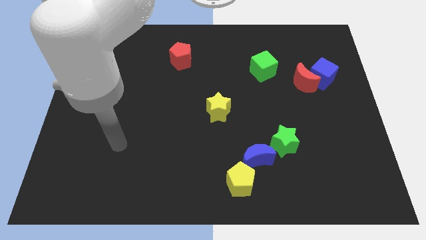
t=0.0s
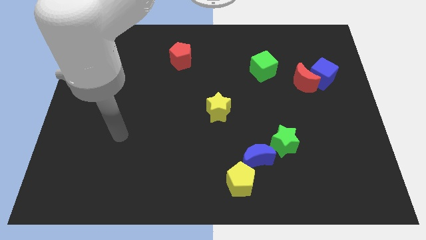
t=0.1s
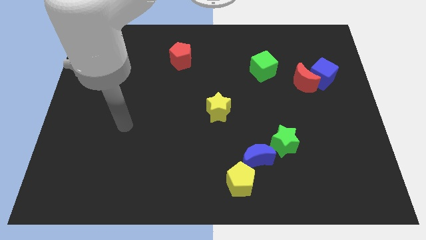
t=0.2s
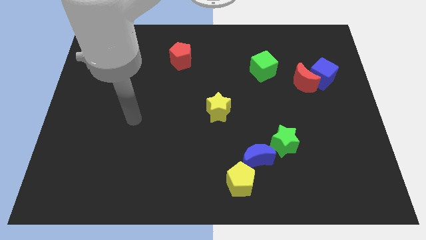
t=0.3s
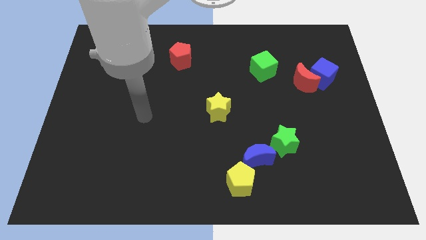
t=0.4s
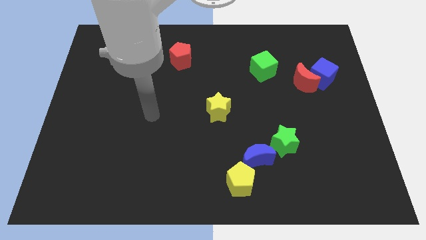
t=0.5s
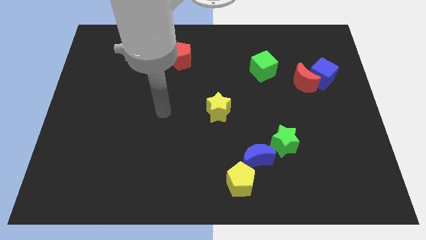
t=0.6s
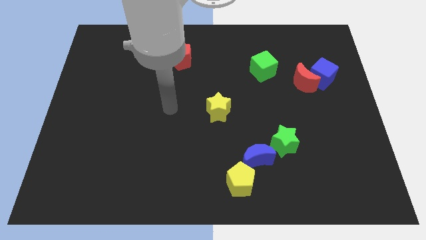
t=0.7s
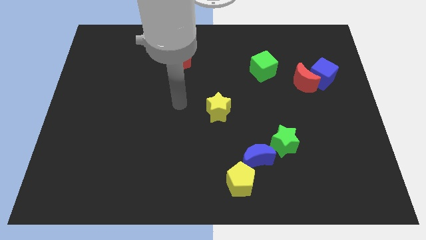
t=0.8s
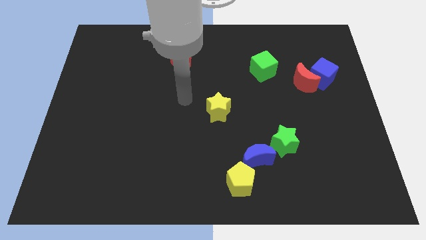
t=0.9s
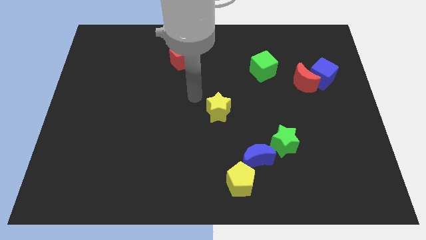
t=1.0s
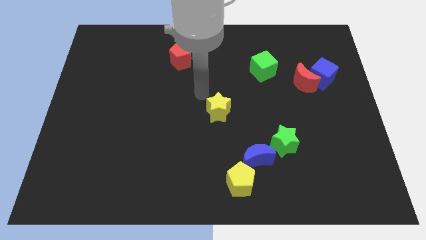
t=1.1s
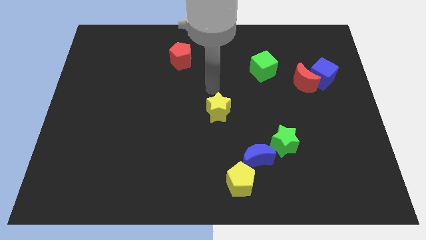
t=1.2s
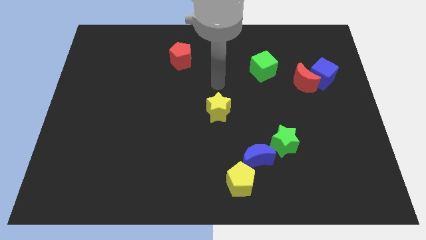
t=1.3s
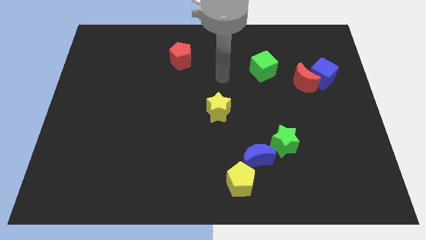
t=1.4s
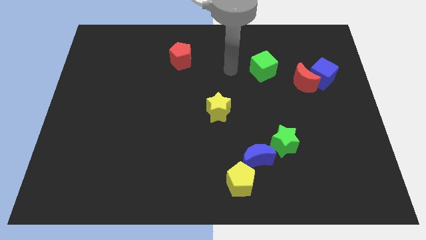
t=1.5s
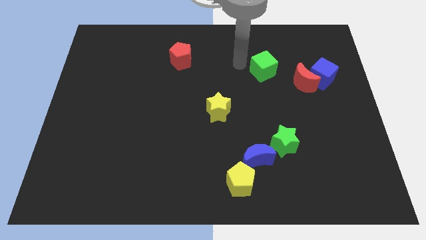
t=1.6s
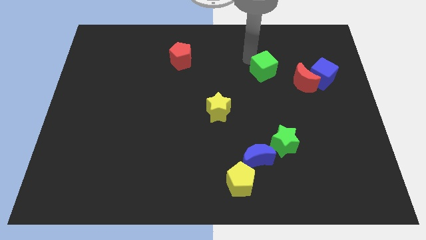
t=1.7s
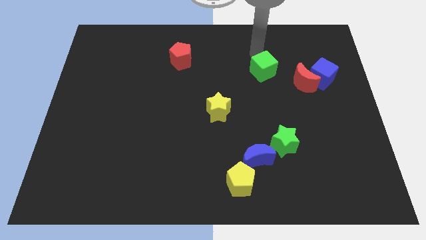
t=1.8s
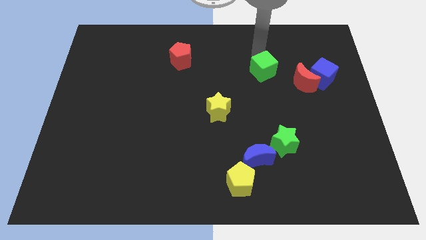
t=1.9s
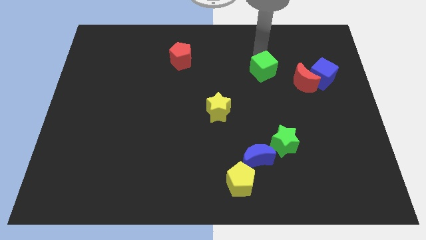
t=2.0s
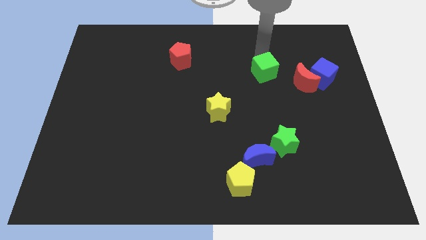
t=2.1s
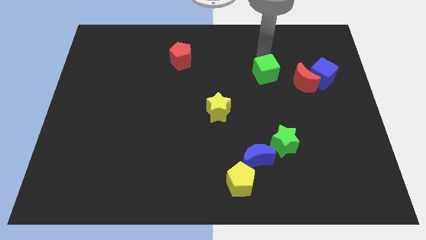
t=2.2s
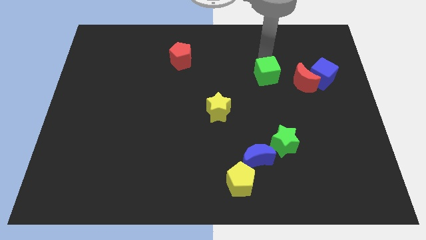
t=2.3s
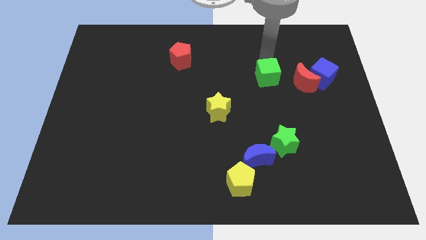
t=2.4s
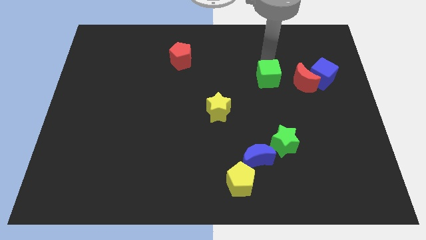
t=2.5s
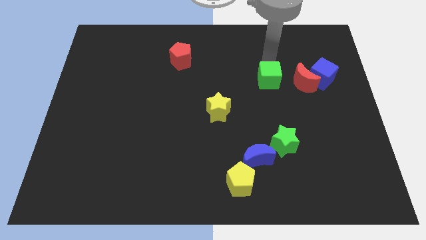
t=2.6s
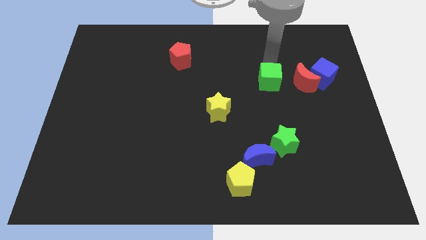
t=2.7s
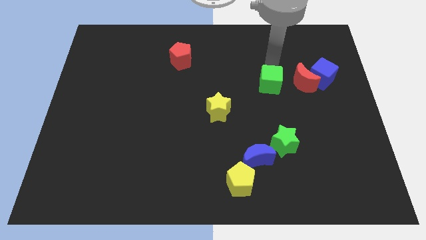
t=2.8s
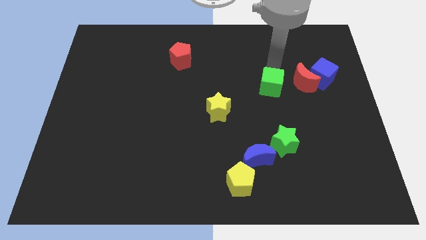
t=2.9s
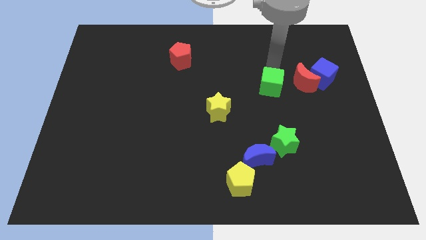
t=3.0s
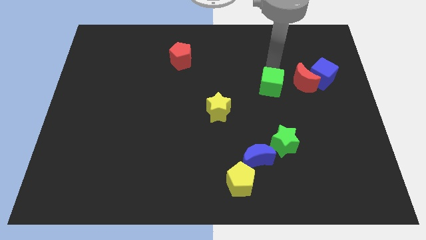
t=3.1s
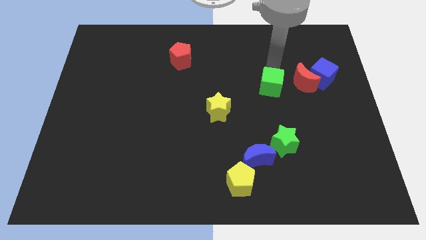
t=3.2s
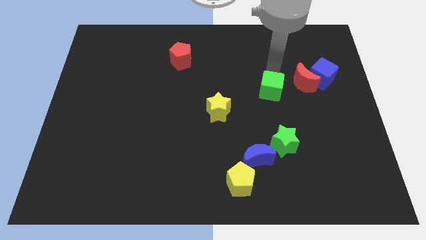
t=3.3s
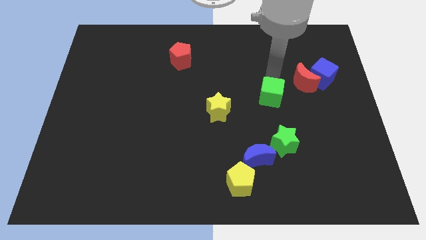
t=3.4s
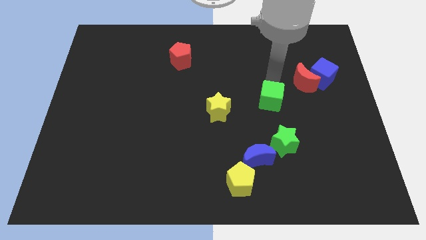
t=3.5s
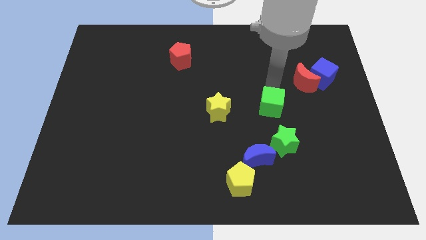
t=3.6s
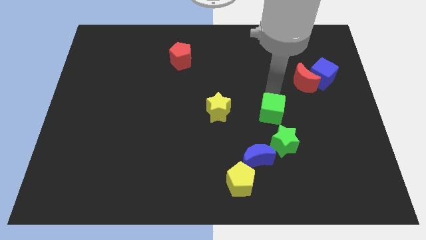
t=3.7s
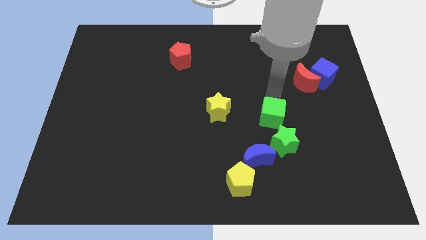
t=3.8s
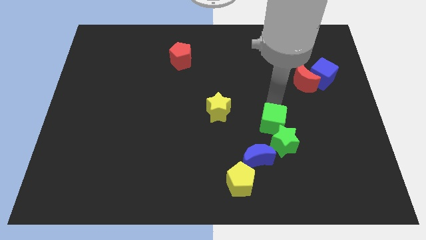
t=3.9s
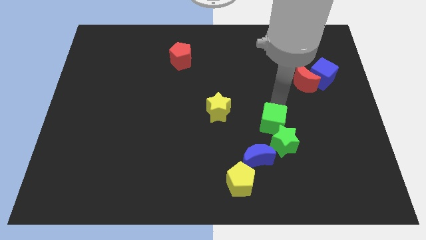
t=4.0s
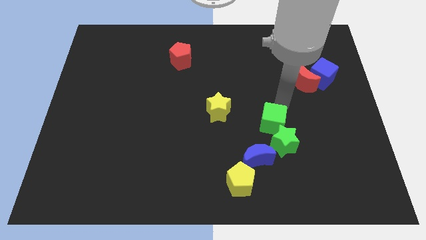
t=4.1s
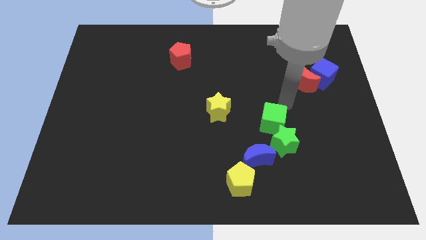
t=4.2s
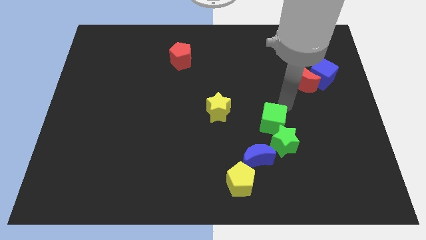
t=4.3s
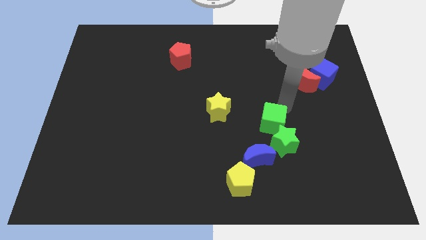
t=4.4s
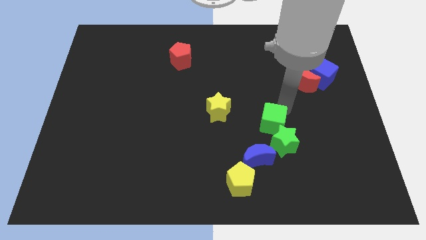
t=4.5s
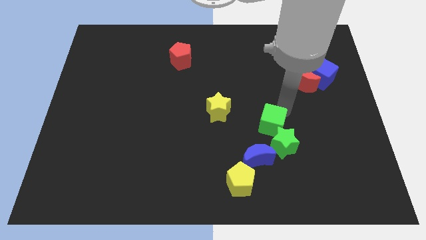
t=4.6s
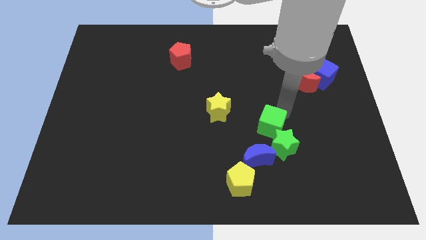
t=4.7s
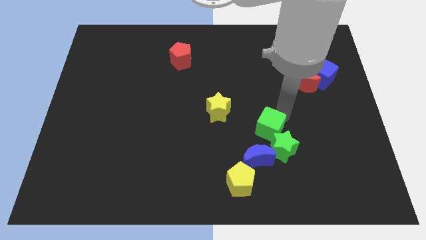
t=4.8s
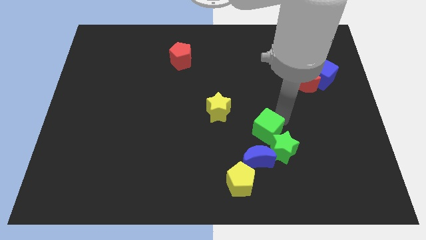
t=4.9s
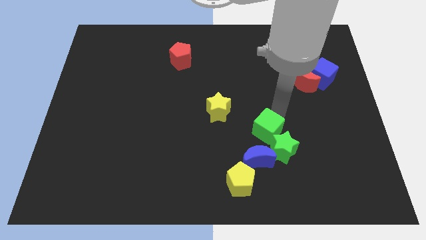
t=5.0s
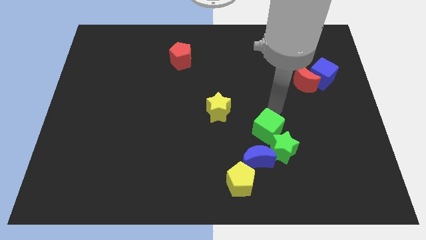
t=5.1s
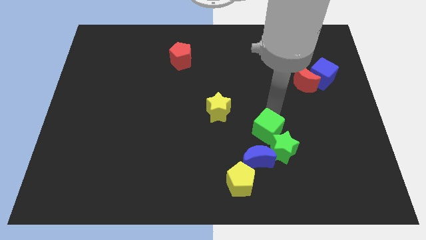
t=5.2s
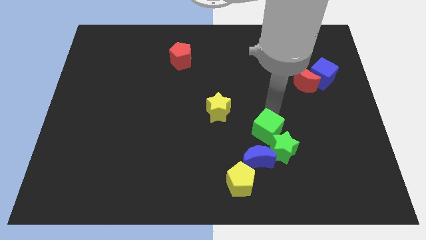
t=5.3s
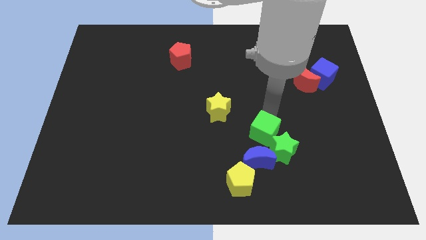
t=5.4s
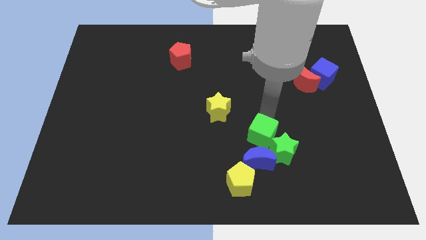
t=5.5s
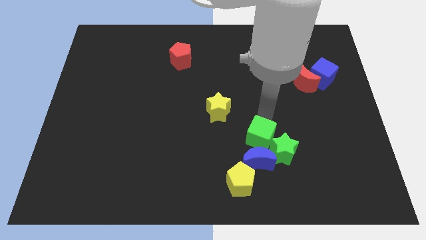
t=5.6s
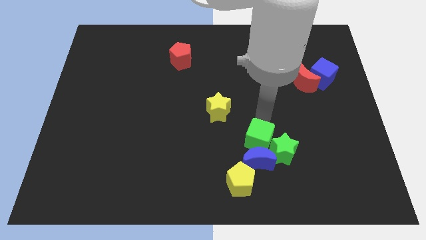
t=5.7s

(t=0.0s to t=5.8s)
slide the green cube towards the blue moon

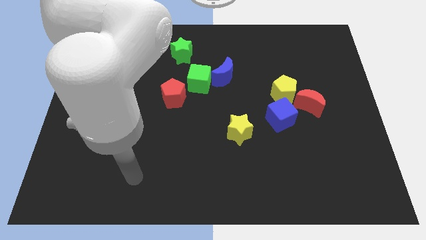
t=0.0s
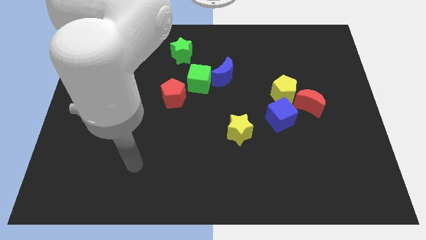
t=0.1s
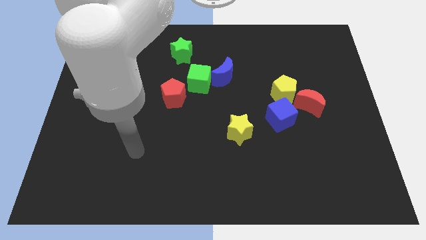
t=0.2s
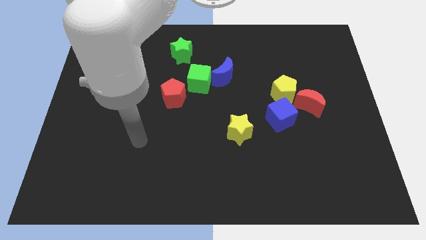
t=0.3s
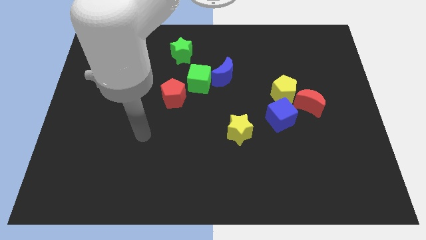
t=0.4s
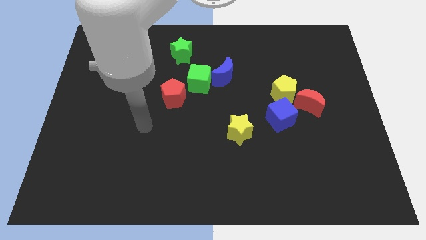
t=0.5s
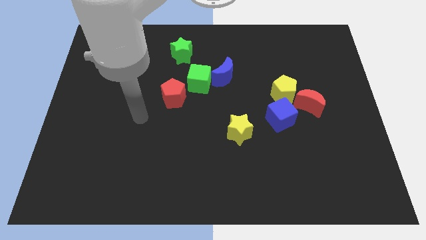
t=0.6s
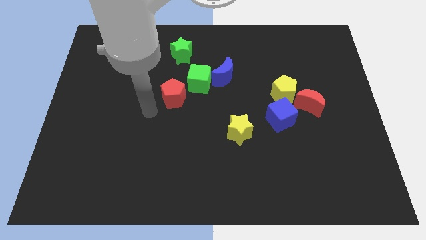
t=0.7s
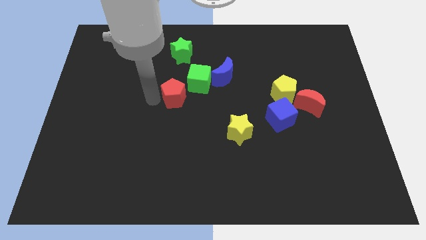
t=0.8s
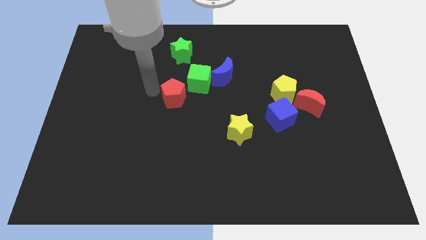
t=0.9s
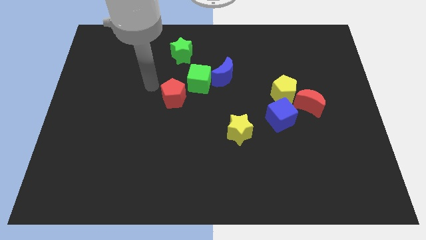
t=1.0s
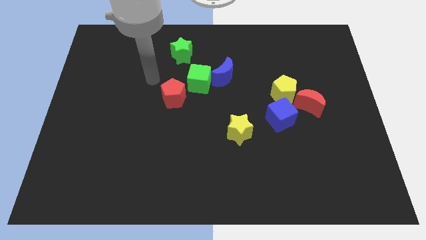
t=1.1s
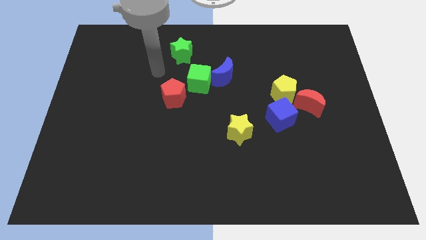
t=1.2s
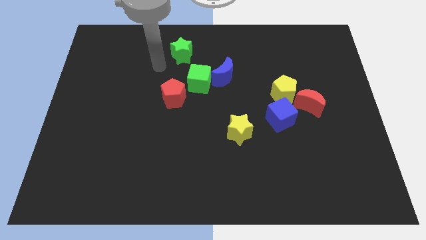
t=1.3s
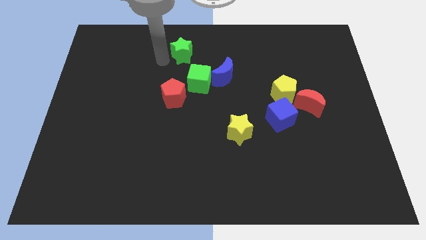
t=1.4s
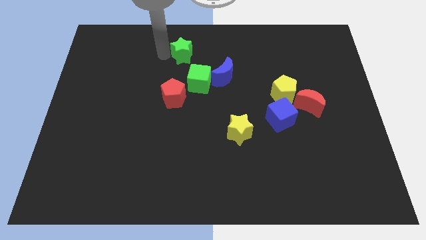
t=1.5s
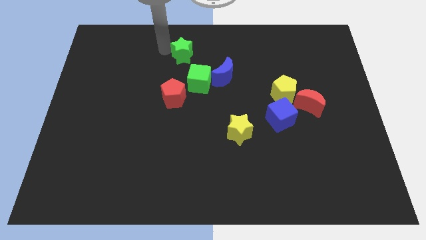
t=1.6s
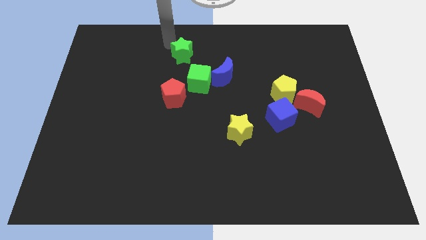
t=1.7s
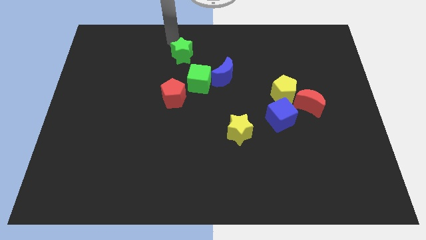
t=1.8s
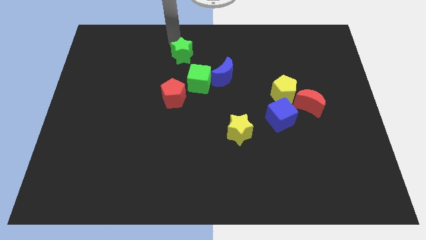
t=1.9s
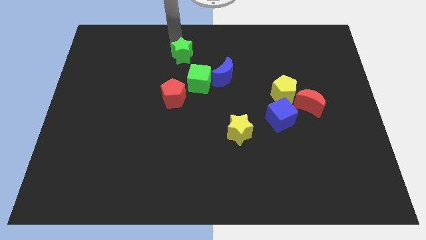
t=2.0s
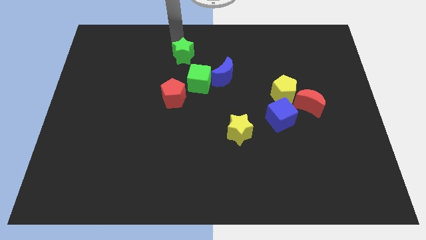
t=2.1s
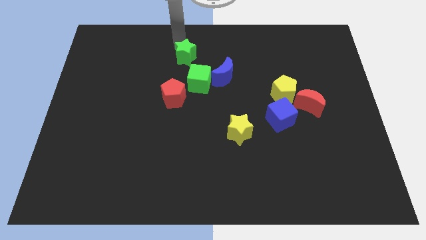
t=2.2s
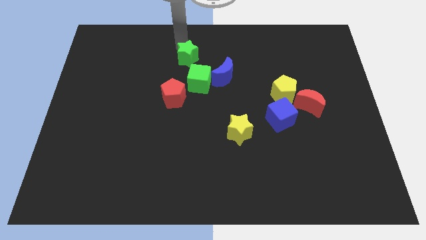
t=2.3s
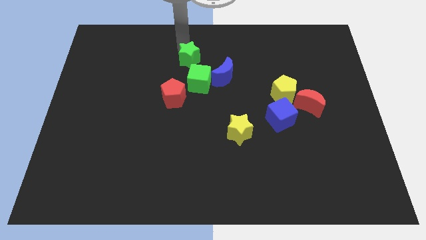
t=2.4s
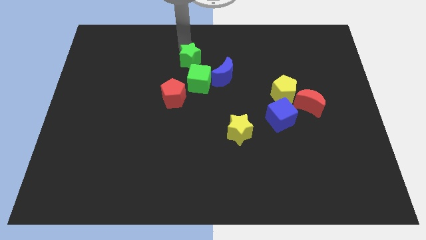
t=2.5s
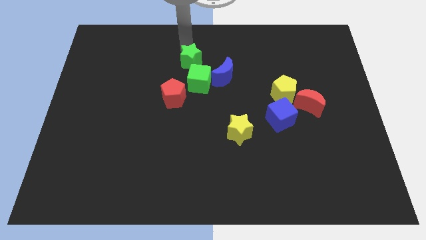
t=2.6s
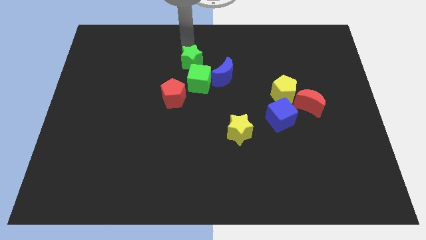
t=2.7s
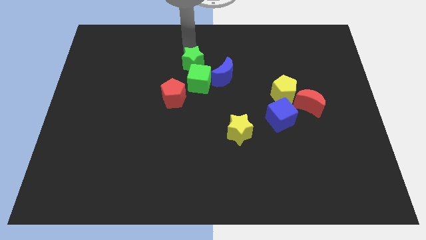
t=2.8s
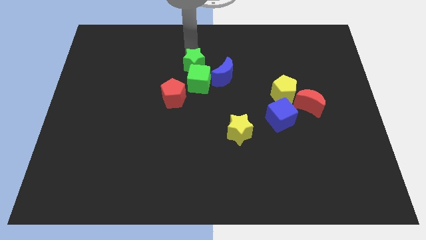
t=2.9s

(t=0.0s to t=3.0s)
put the green star towards the green cube
